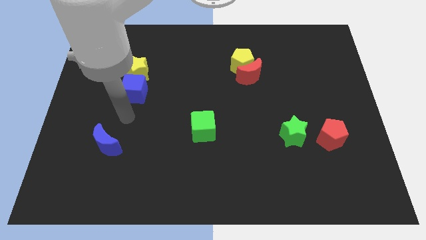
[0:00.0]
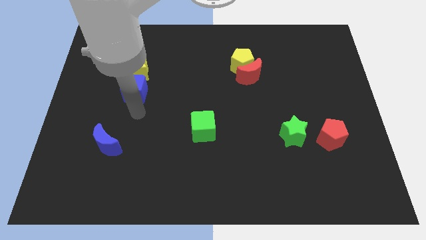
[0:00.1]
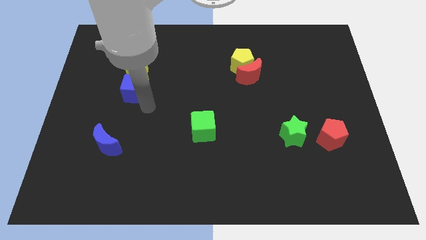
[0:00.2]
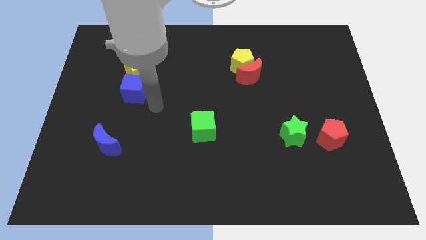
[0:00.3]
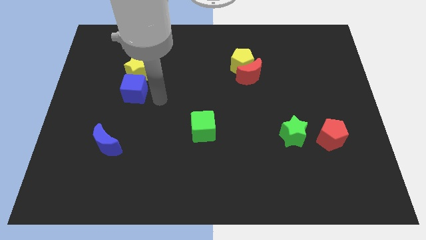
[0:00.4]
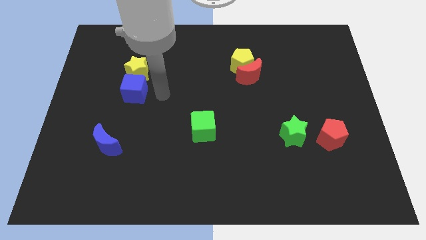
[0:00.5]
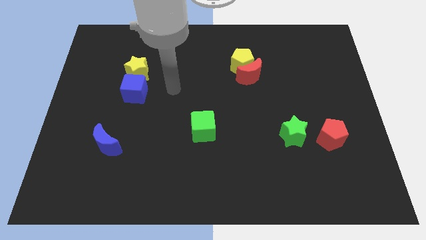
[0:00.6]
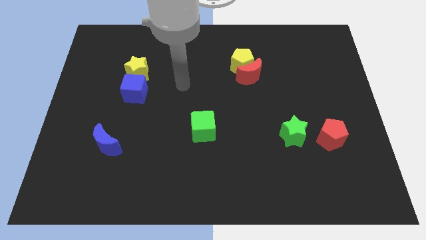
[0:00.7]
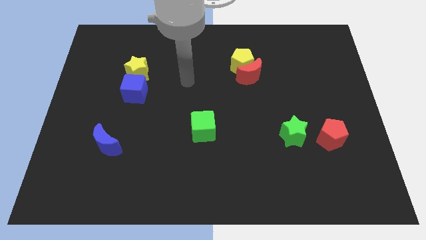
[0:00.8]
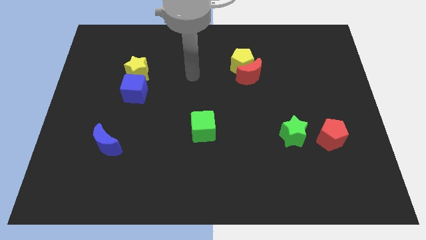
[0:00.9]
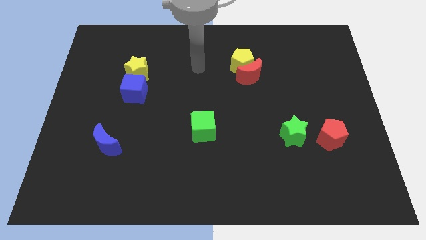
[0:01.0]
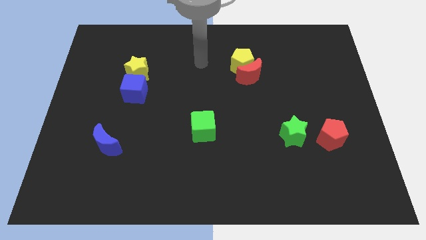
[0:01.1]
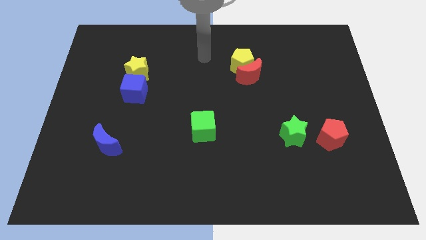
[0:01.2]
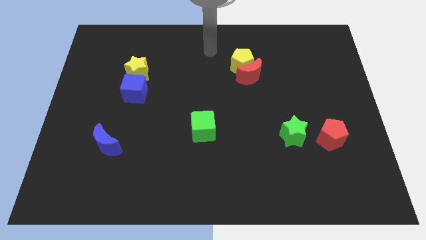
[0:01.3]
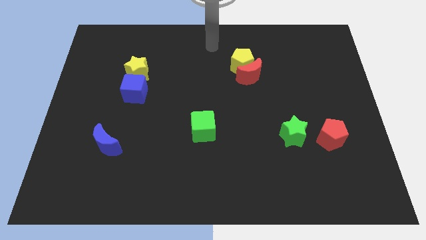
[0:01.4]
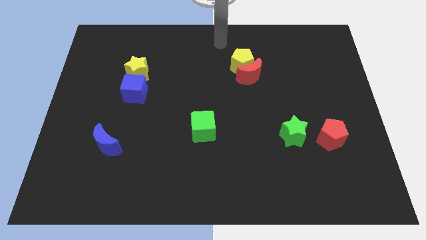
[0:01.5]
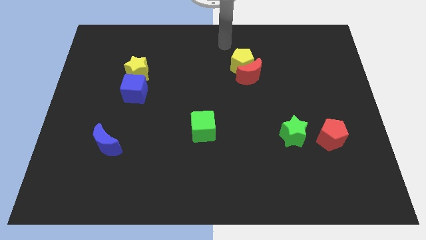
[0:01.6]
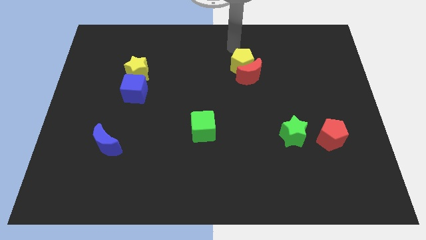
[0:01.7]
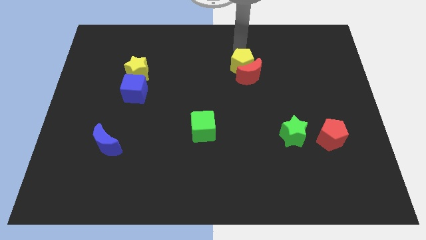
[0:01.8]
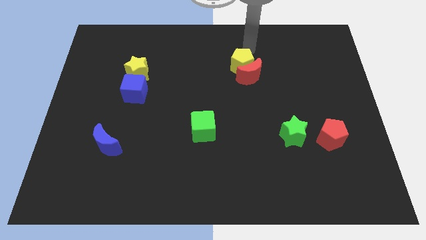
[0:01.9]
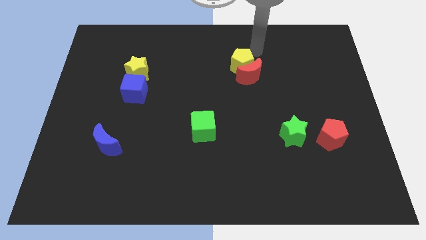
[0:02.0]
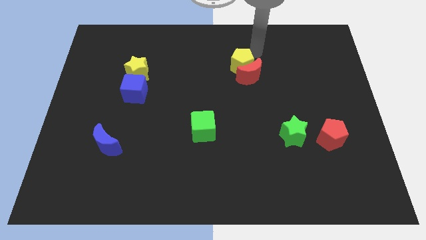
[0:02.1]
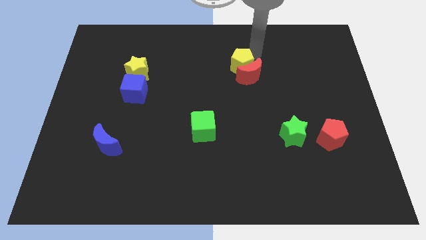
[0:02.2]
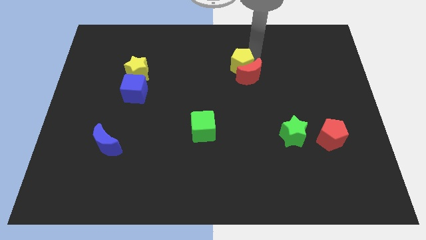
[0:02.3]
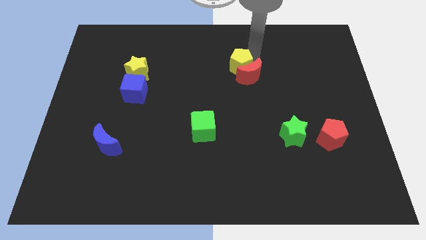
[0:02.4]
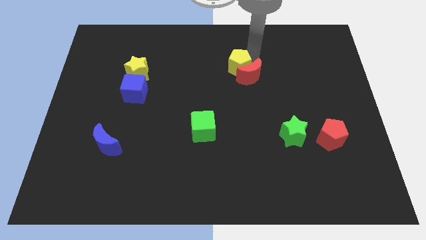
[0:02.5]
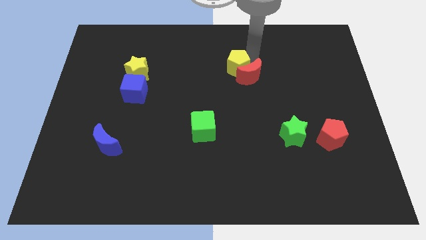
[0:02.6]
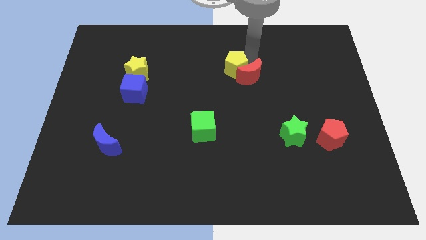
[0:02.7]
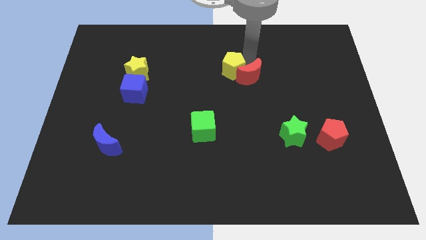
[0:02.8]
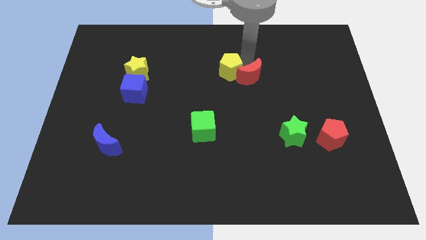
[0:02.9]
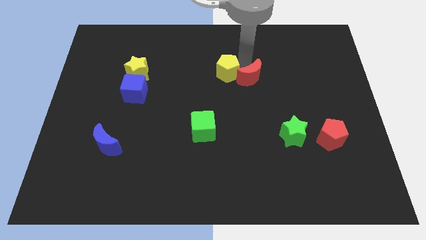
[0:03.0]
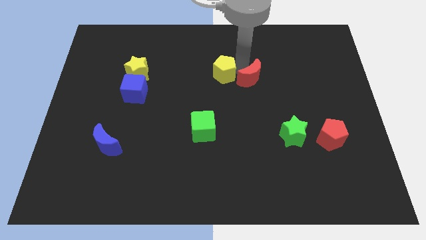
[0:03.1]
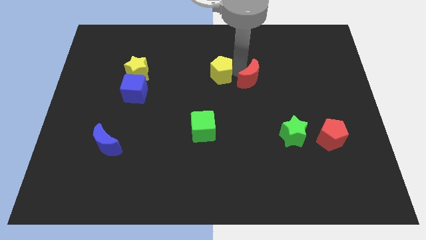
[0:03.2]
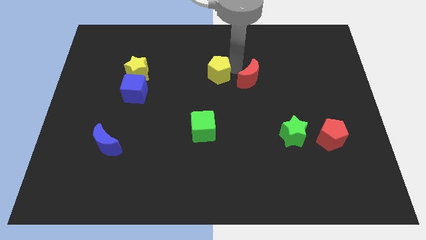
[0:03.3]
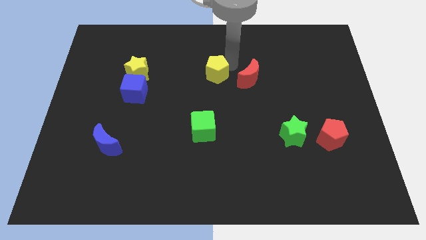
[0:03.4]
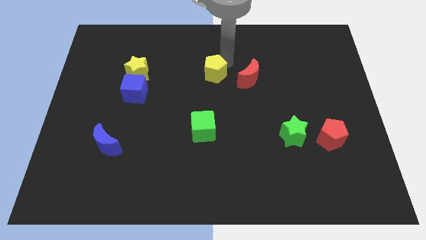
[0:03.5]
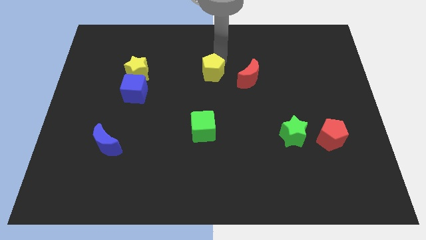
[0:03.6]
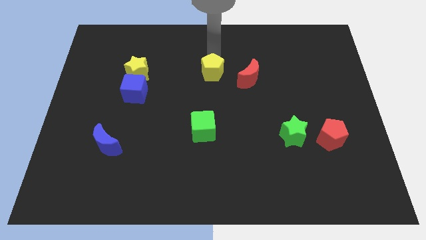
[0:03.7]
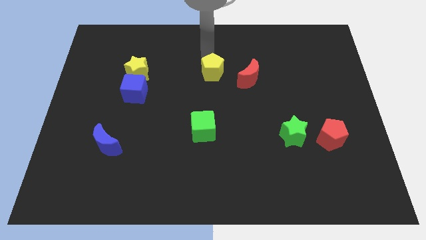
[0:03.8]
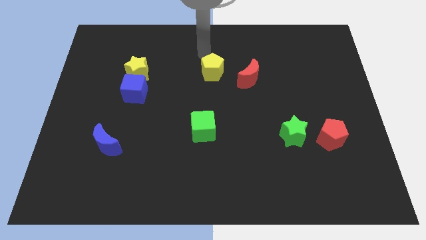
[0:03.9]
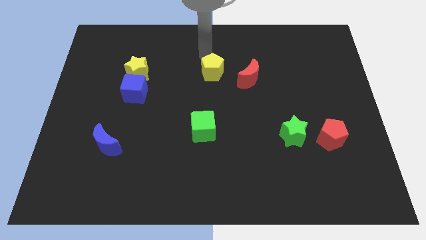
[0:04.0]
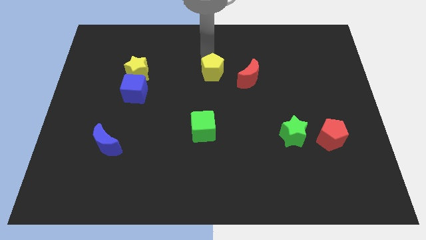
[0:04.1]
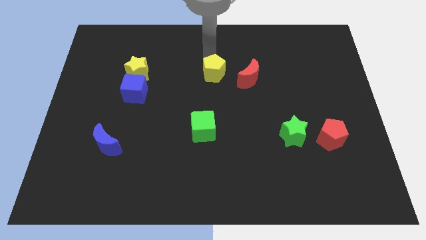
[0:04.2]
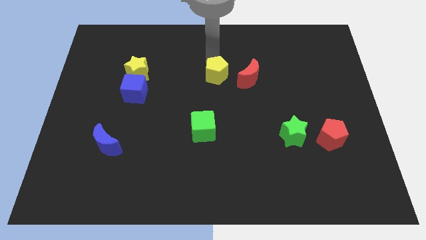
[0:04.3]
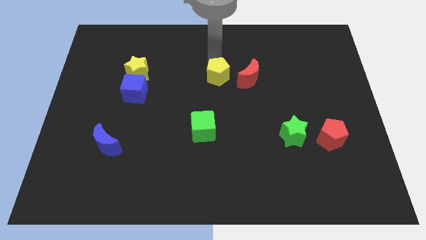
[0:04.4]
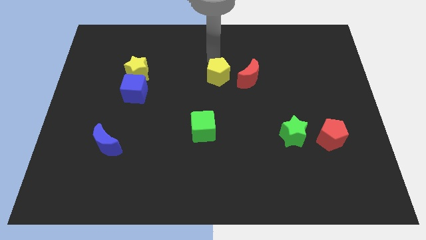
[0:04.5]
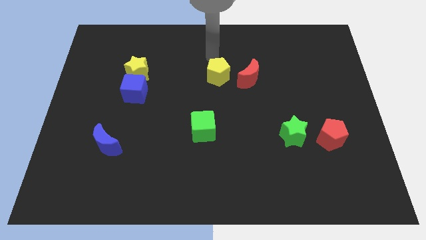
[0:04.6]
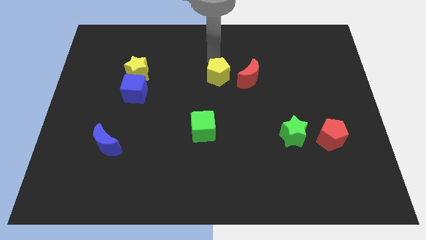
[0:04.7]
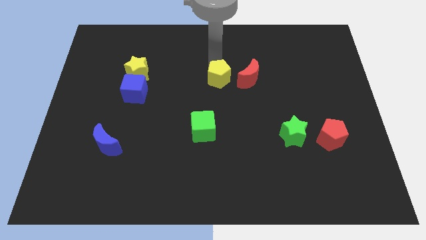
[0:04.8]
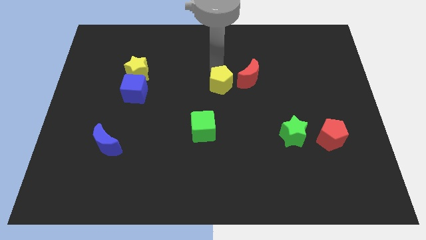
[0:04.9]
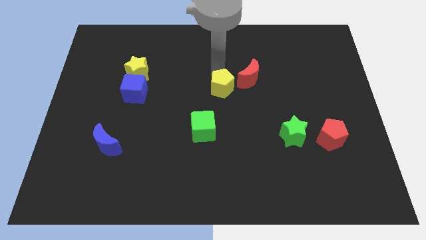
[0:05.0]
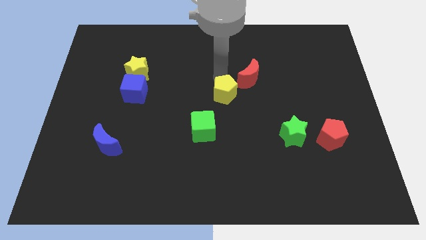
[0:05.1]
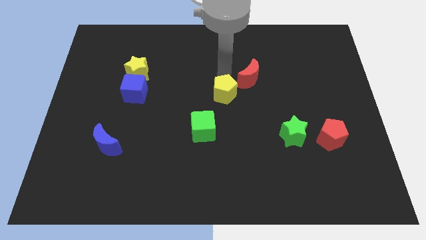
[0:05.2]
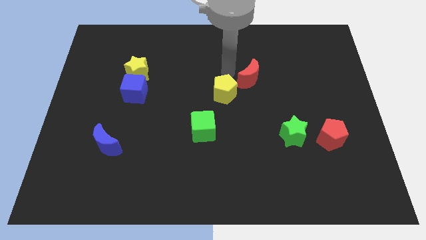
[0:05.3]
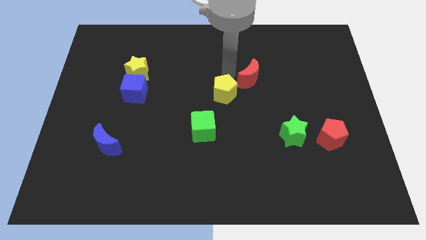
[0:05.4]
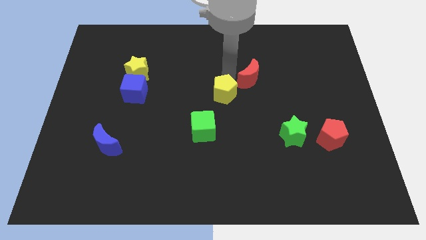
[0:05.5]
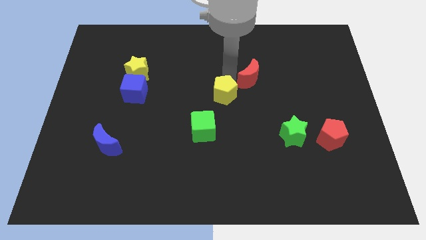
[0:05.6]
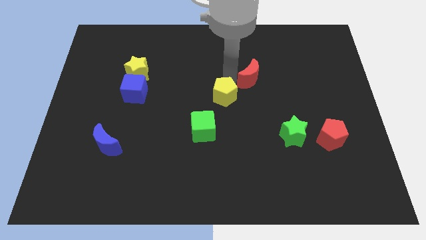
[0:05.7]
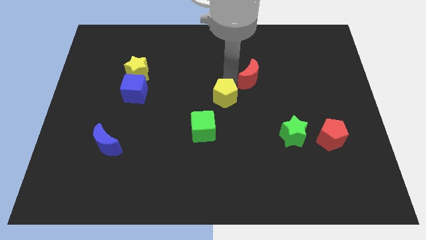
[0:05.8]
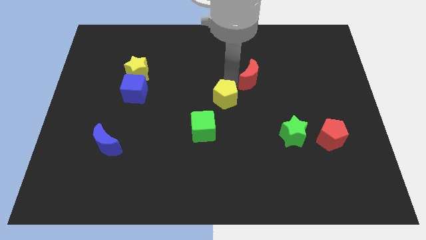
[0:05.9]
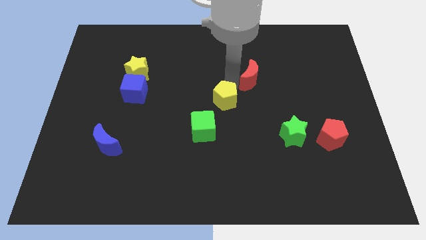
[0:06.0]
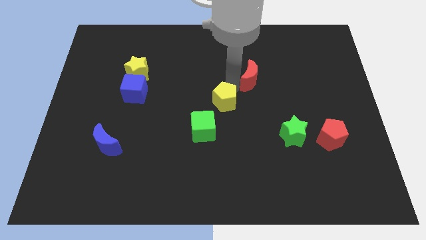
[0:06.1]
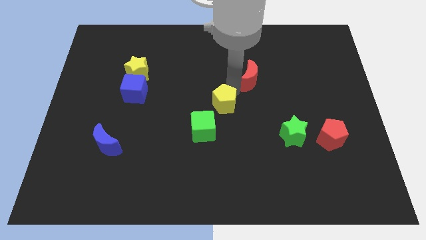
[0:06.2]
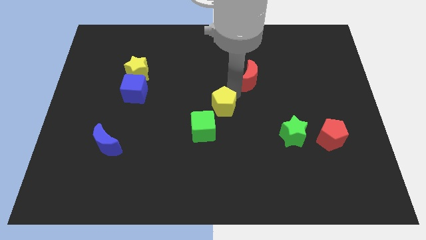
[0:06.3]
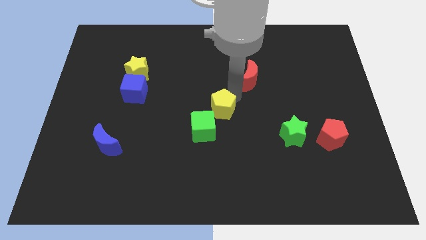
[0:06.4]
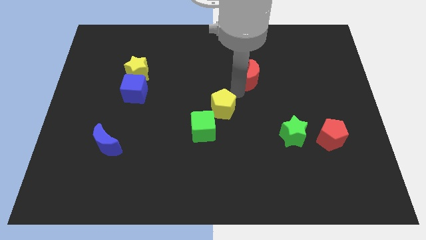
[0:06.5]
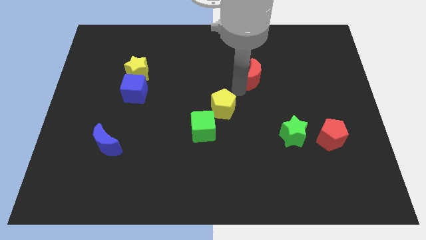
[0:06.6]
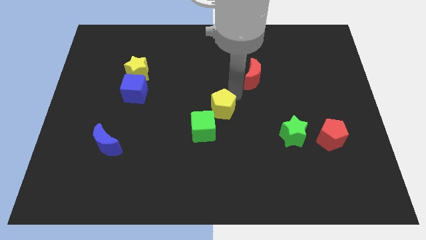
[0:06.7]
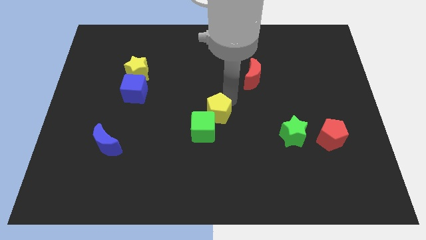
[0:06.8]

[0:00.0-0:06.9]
move the yellow pentagon next to the green cube
